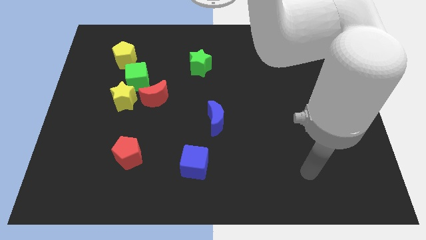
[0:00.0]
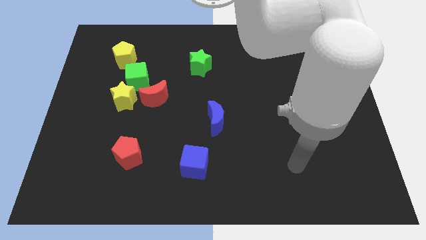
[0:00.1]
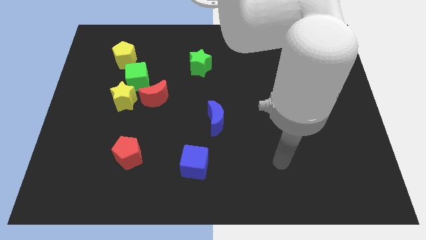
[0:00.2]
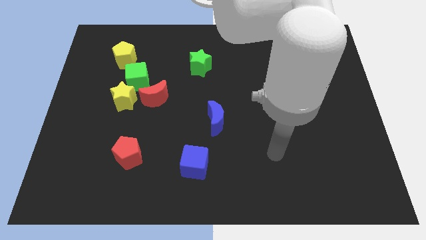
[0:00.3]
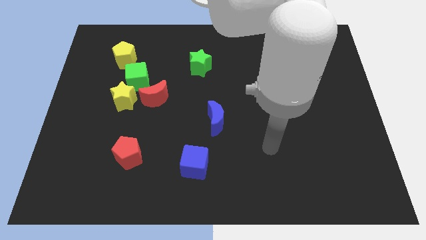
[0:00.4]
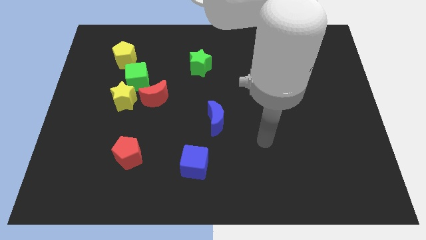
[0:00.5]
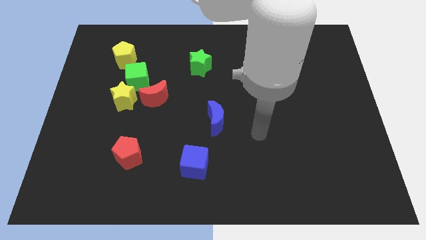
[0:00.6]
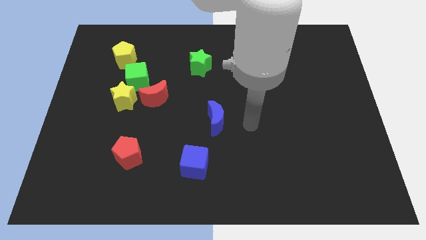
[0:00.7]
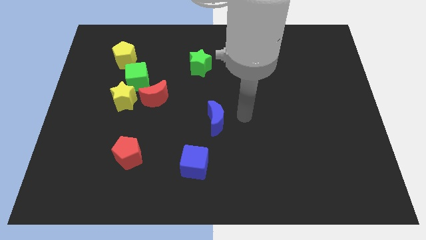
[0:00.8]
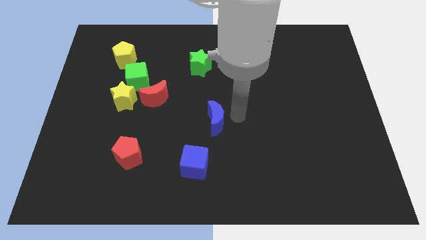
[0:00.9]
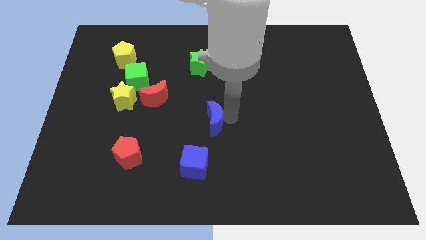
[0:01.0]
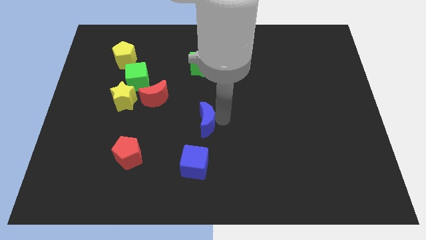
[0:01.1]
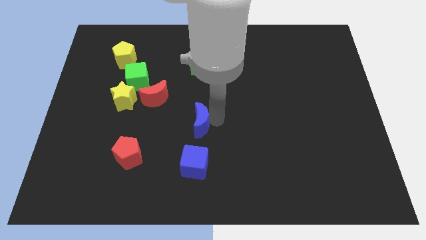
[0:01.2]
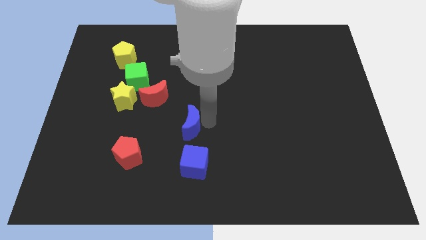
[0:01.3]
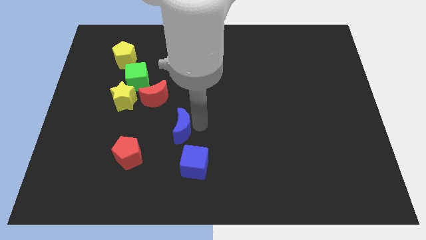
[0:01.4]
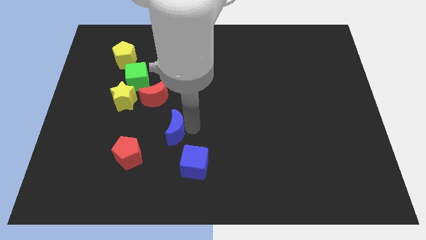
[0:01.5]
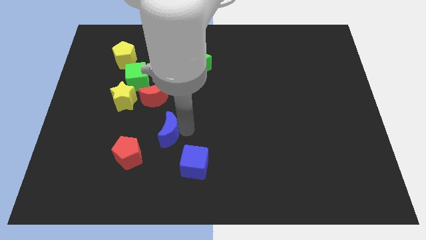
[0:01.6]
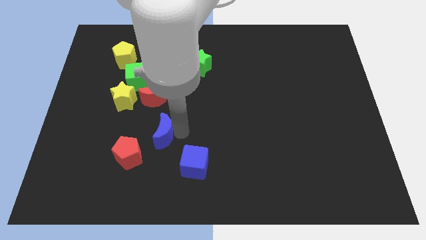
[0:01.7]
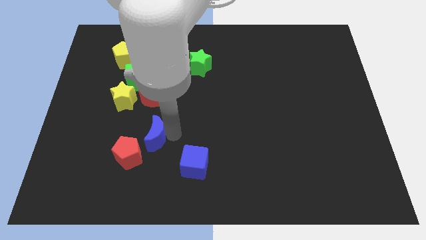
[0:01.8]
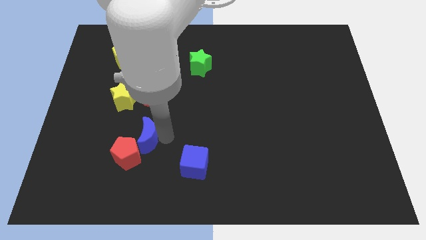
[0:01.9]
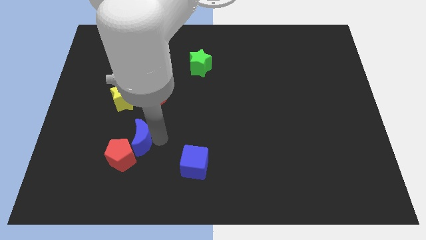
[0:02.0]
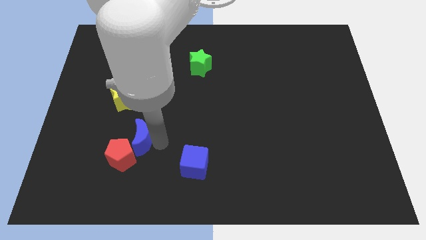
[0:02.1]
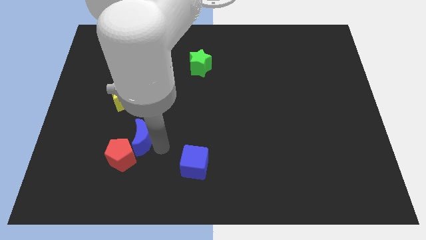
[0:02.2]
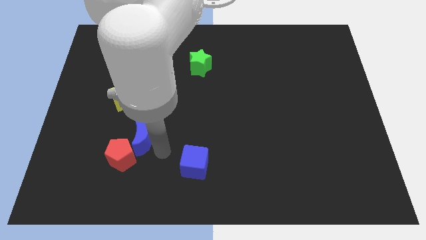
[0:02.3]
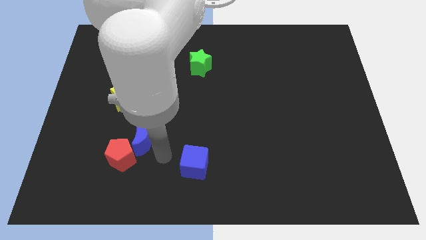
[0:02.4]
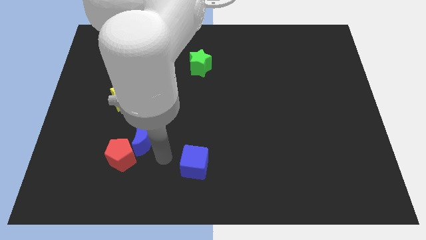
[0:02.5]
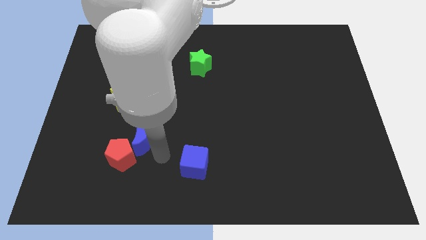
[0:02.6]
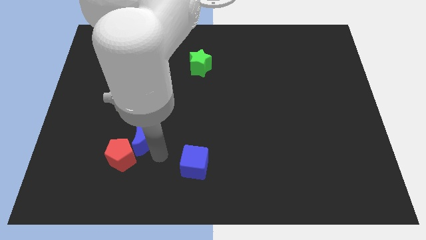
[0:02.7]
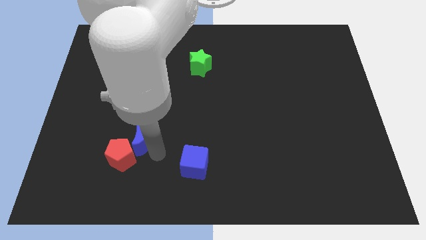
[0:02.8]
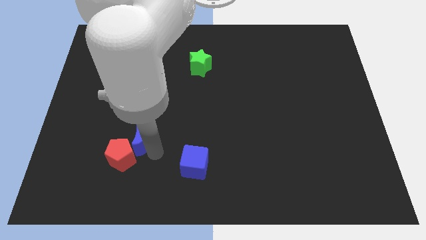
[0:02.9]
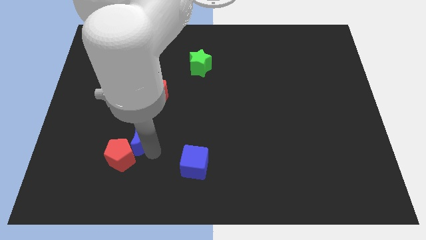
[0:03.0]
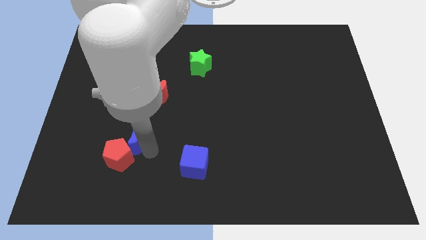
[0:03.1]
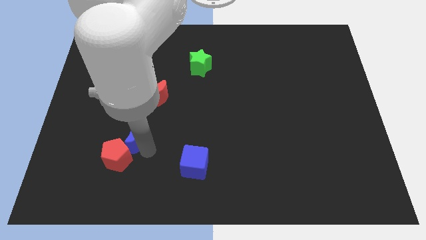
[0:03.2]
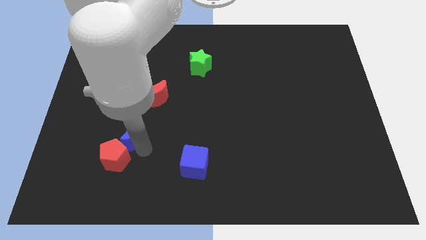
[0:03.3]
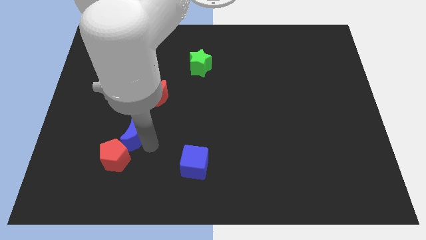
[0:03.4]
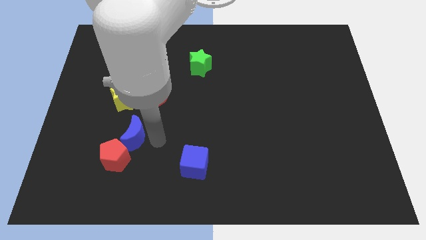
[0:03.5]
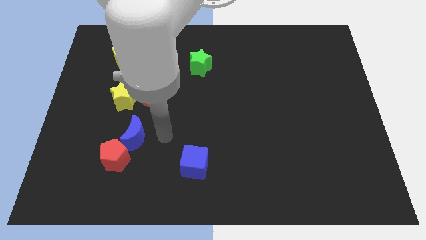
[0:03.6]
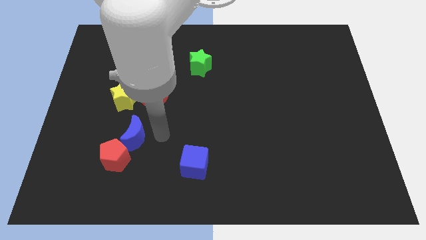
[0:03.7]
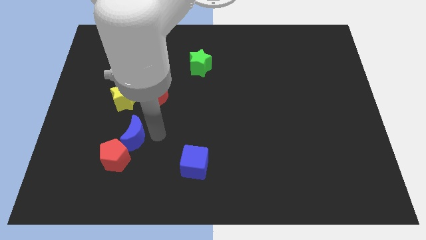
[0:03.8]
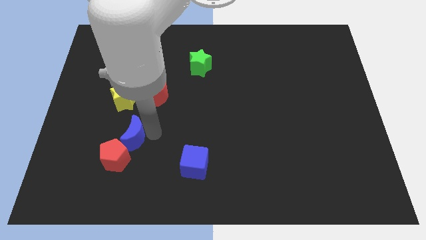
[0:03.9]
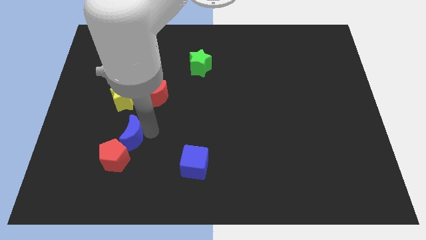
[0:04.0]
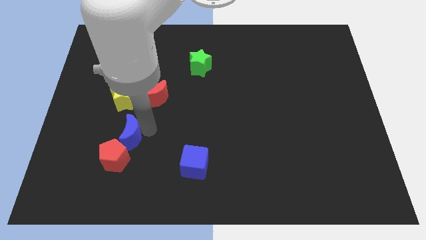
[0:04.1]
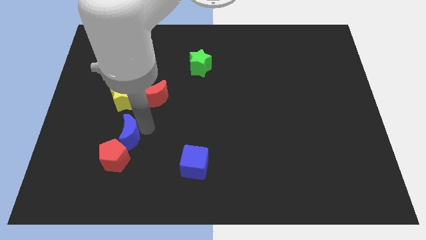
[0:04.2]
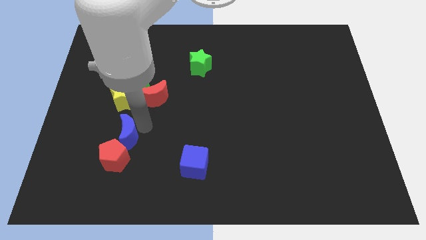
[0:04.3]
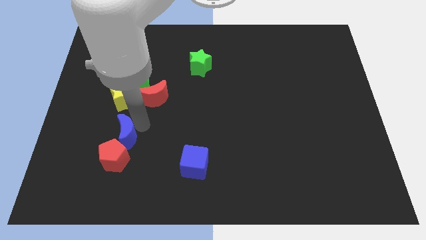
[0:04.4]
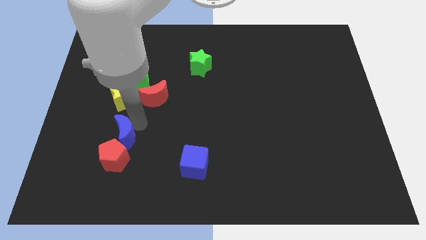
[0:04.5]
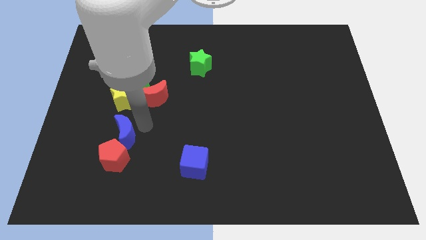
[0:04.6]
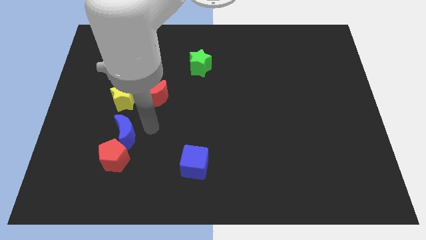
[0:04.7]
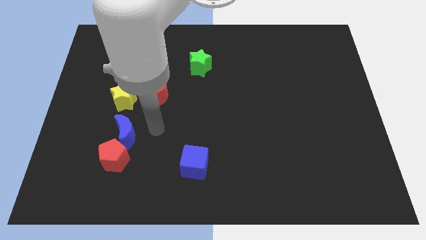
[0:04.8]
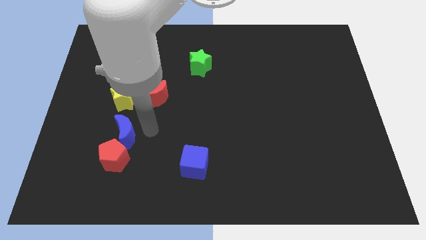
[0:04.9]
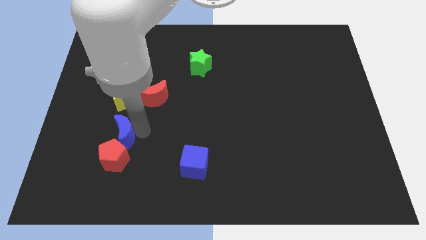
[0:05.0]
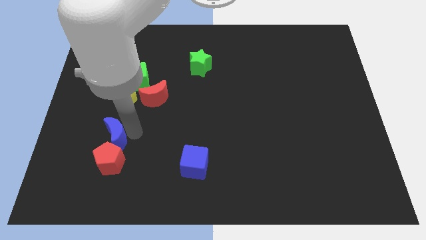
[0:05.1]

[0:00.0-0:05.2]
move the blue moon to the top left side of the red pentagon

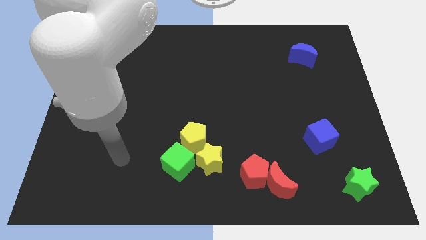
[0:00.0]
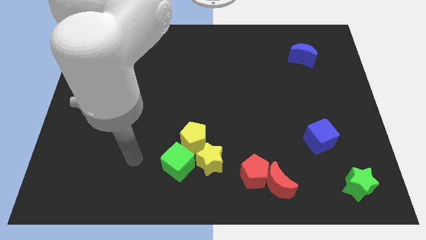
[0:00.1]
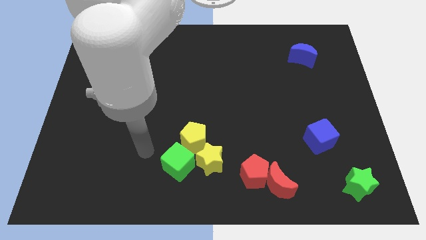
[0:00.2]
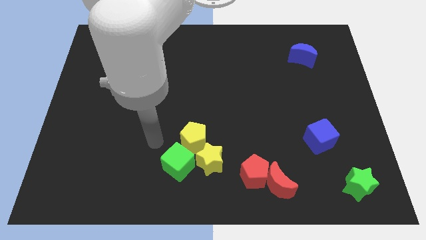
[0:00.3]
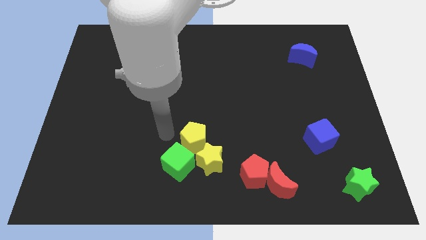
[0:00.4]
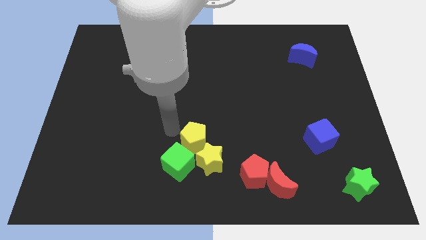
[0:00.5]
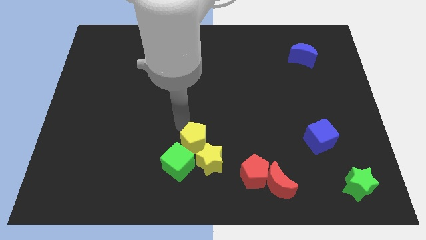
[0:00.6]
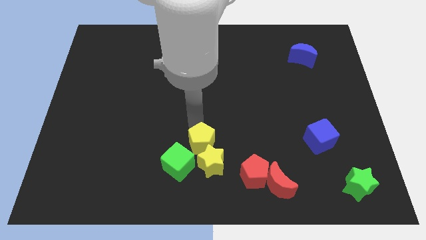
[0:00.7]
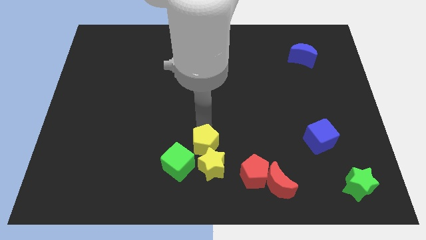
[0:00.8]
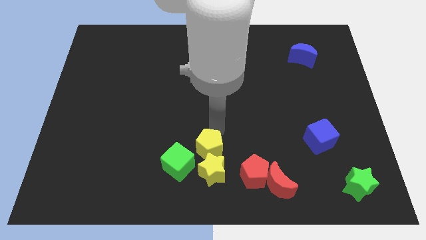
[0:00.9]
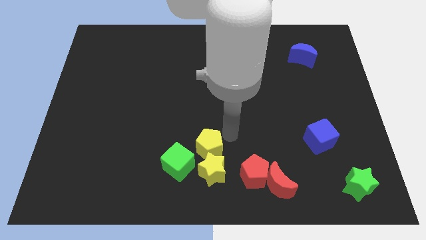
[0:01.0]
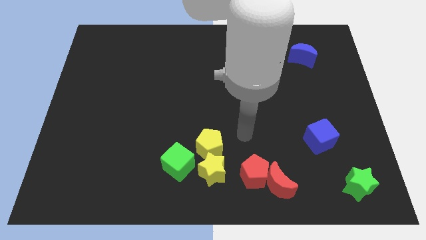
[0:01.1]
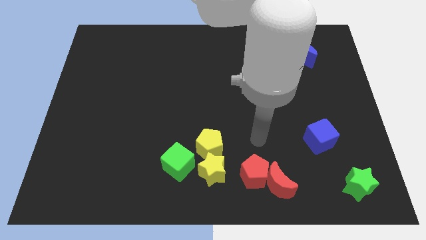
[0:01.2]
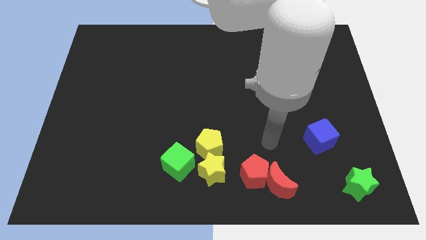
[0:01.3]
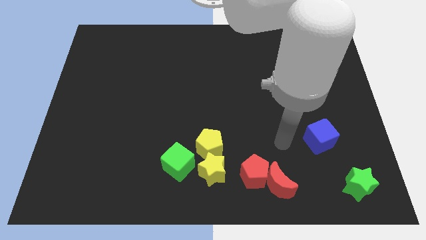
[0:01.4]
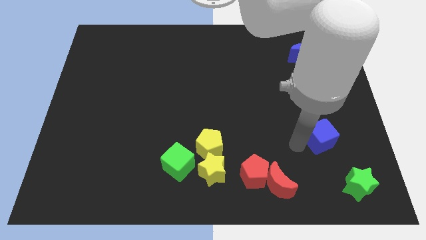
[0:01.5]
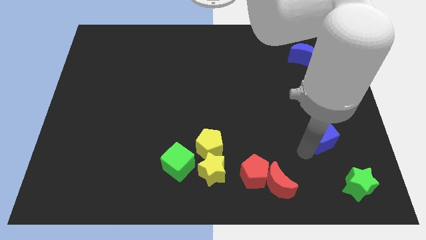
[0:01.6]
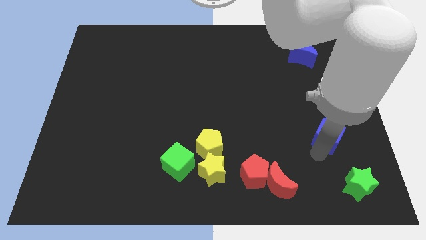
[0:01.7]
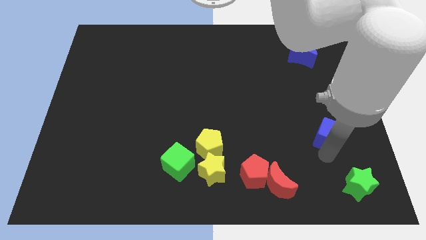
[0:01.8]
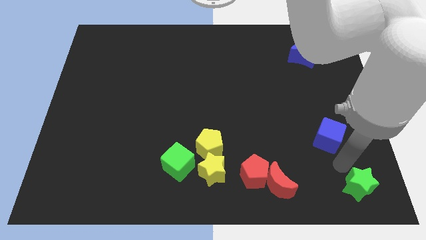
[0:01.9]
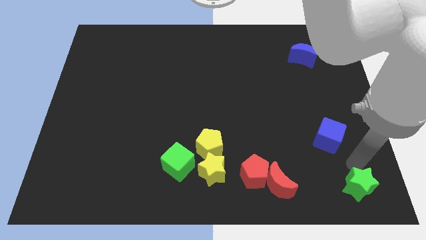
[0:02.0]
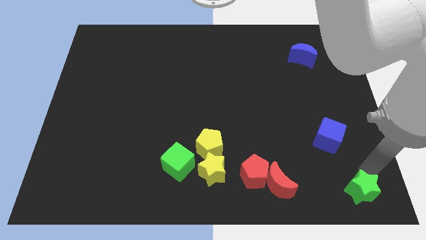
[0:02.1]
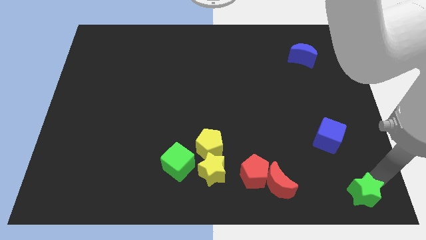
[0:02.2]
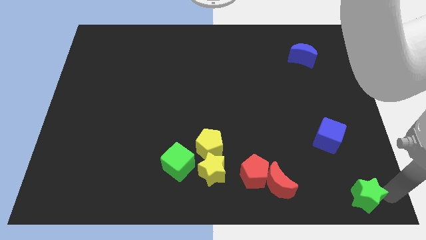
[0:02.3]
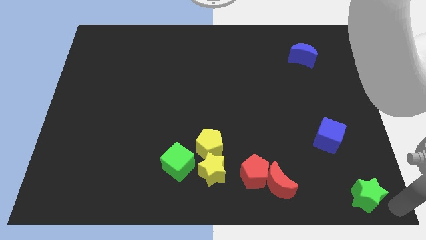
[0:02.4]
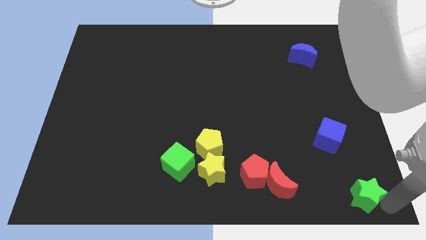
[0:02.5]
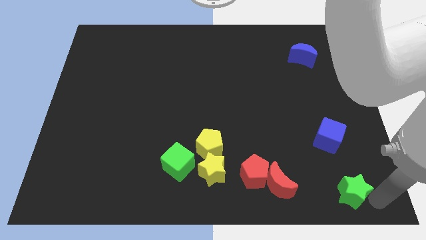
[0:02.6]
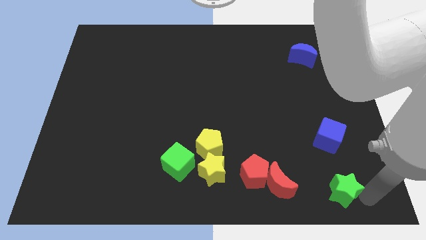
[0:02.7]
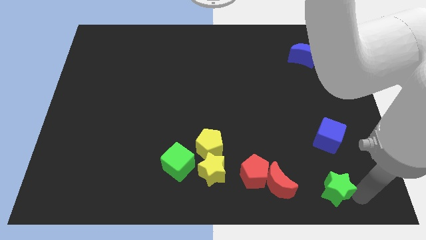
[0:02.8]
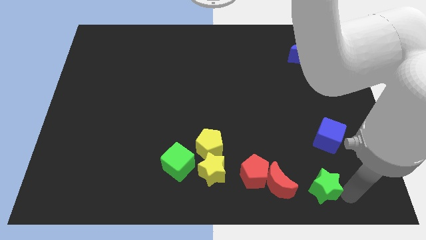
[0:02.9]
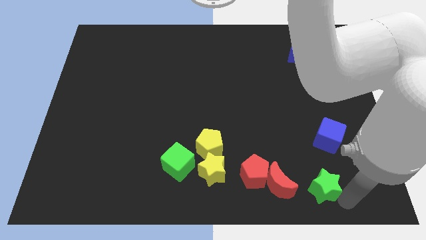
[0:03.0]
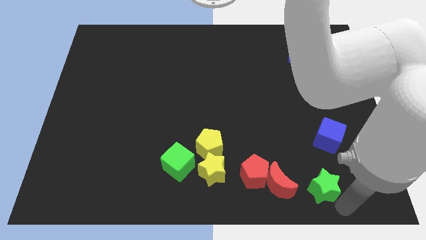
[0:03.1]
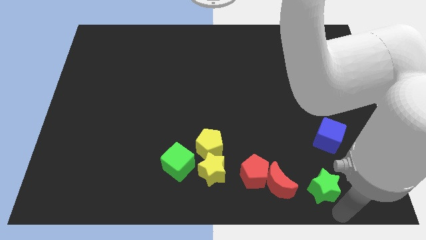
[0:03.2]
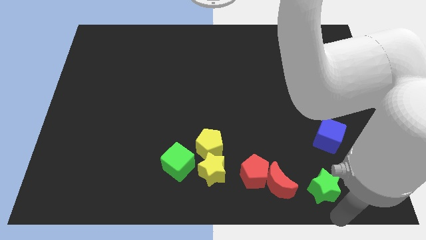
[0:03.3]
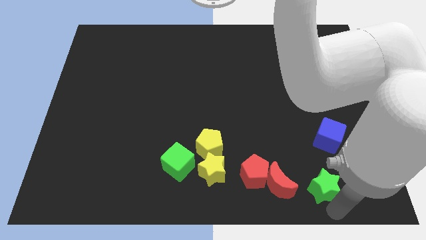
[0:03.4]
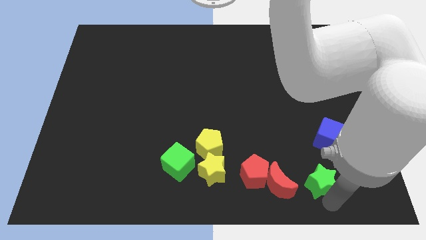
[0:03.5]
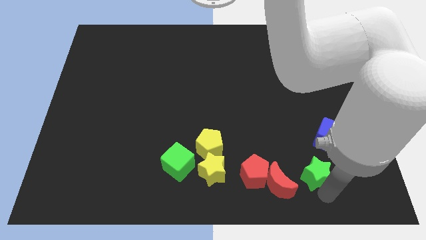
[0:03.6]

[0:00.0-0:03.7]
move the green star to the bottom left of the blue cube
